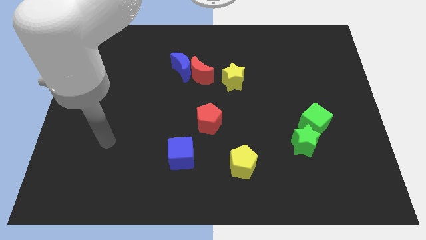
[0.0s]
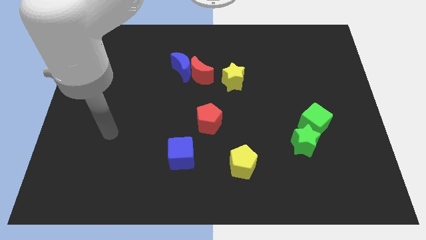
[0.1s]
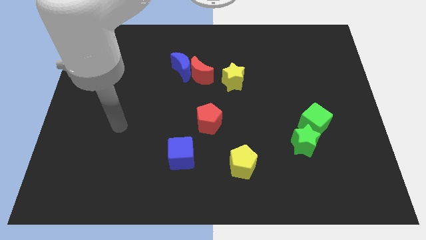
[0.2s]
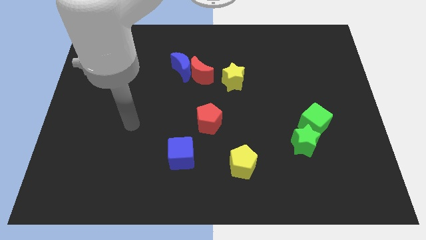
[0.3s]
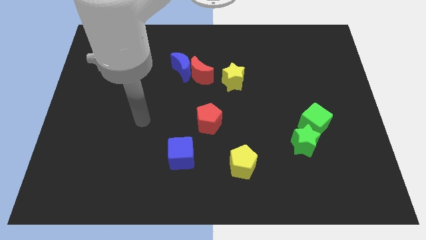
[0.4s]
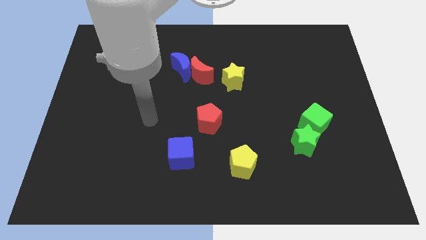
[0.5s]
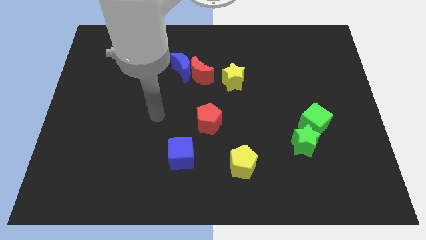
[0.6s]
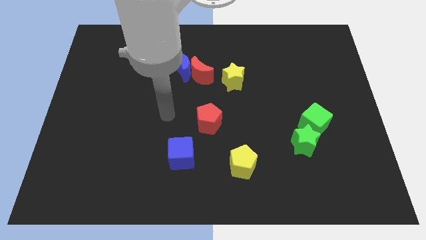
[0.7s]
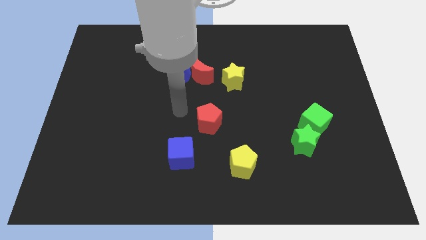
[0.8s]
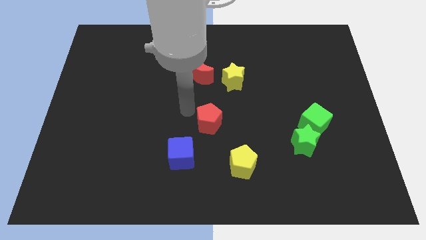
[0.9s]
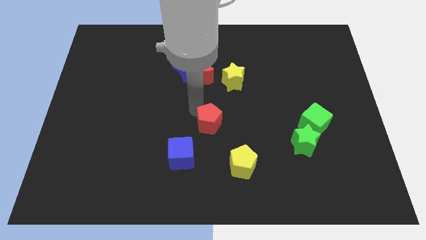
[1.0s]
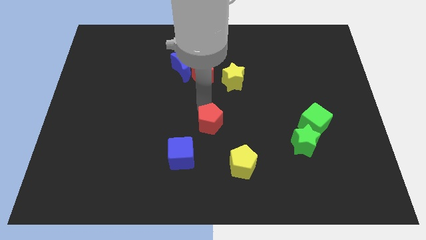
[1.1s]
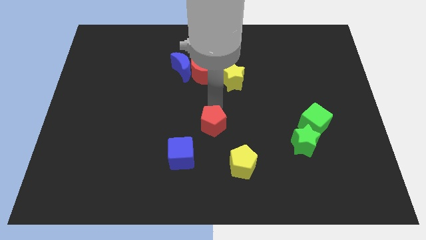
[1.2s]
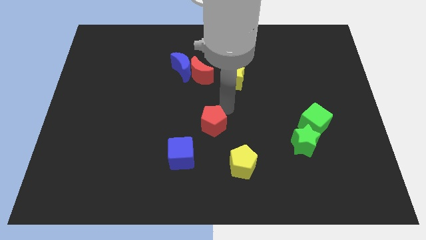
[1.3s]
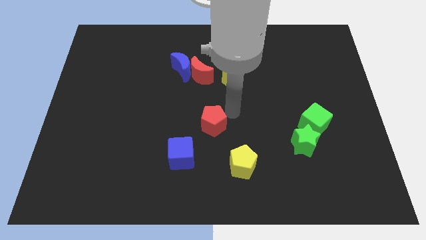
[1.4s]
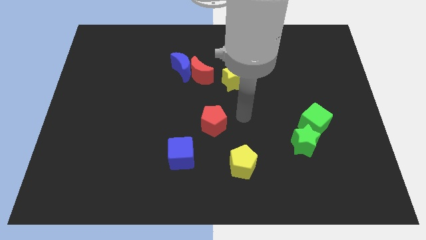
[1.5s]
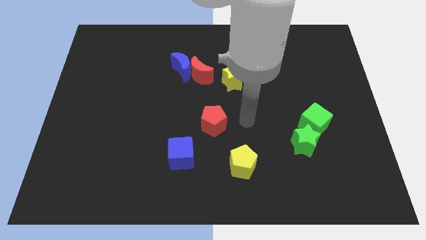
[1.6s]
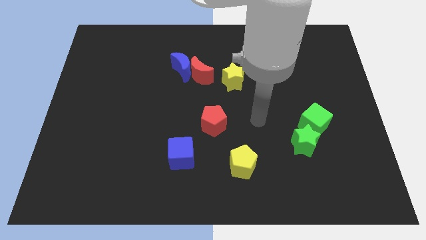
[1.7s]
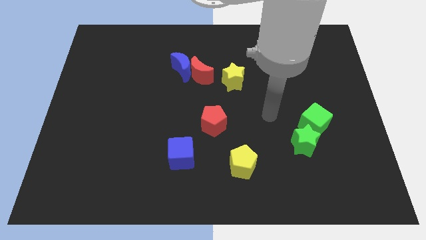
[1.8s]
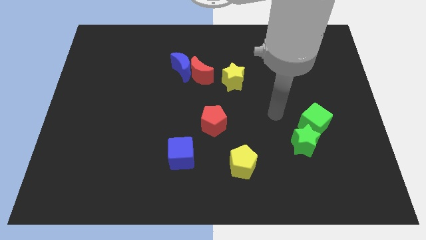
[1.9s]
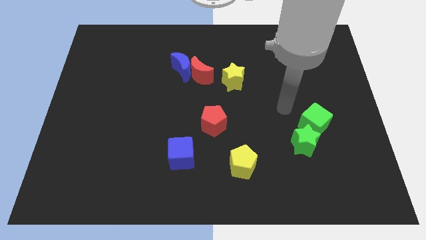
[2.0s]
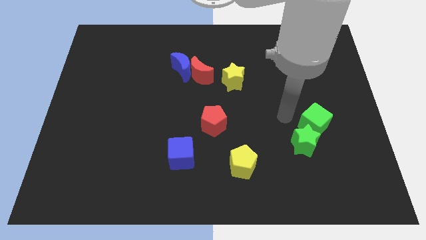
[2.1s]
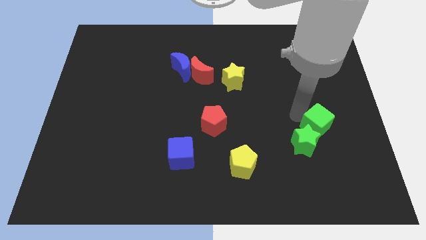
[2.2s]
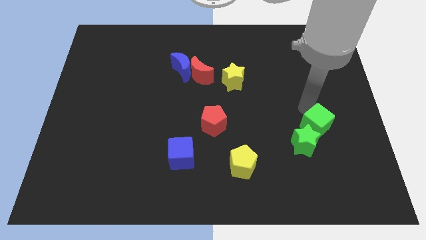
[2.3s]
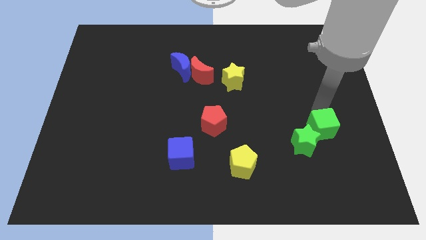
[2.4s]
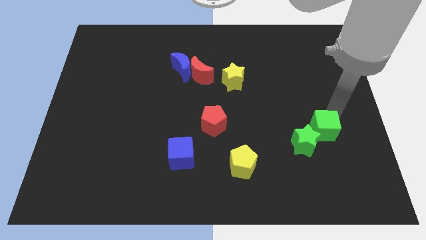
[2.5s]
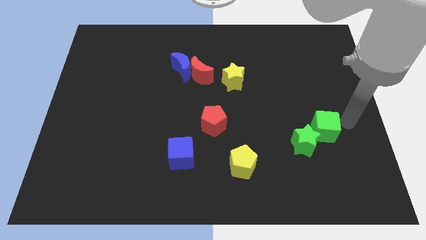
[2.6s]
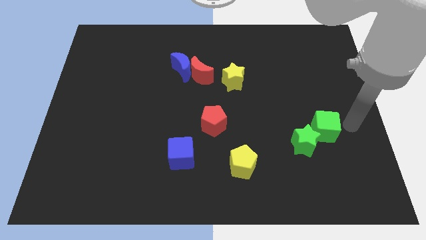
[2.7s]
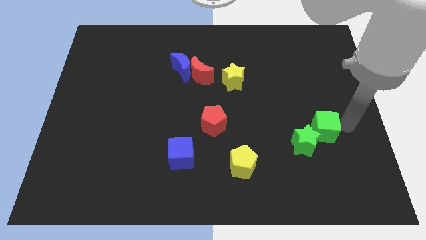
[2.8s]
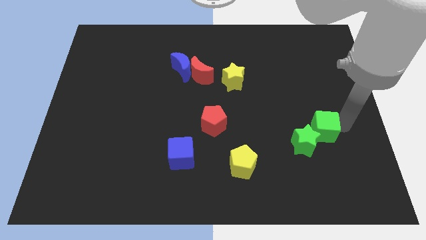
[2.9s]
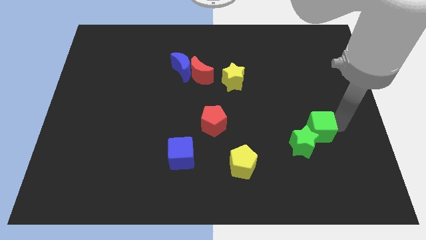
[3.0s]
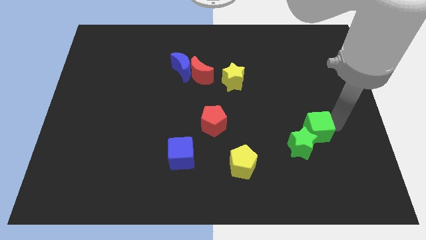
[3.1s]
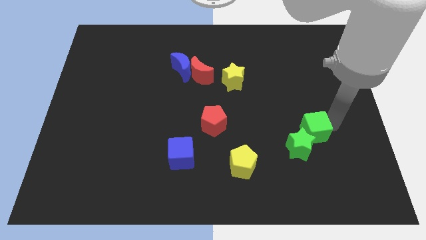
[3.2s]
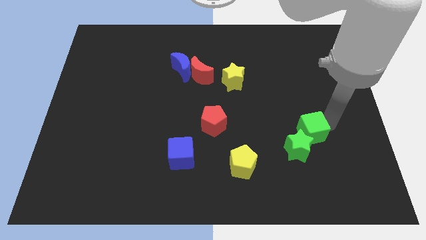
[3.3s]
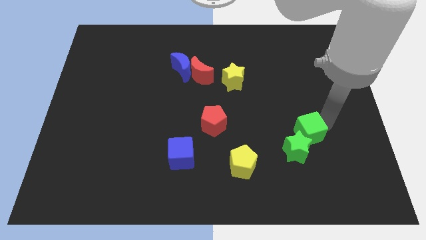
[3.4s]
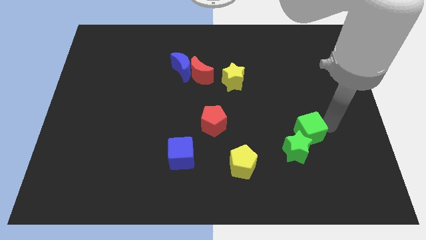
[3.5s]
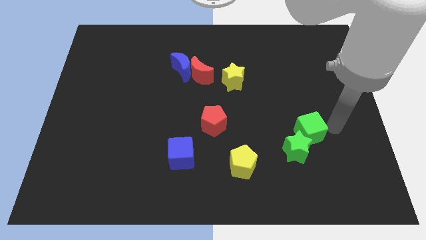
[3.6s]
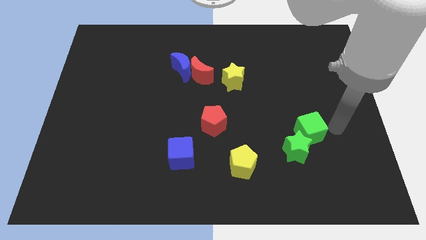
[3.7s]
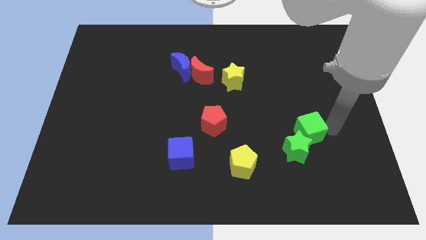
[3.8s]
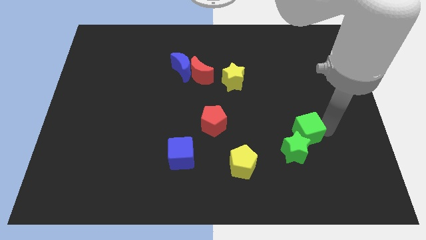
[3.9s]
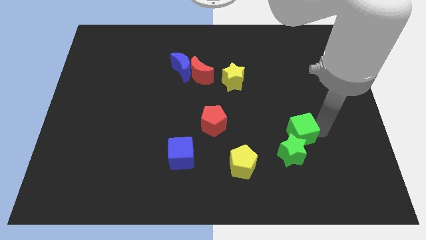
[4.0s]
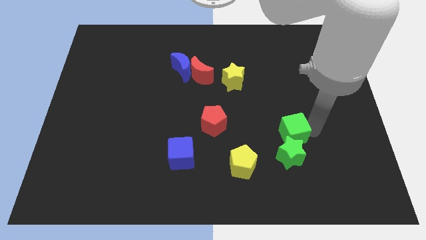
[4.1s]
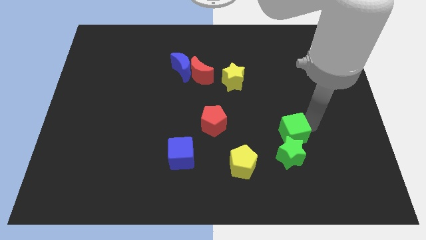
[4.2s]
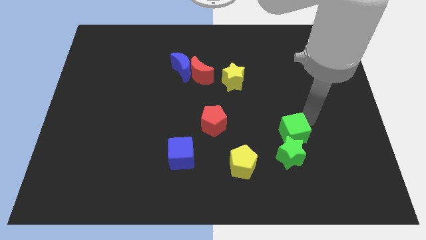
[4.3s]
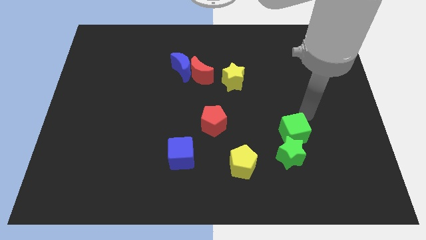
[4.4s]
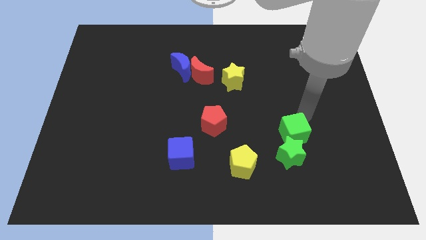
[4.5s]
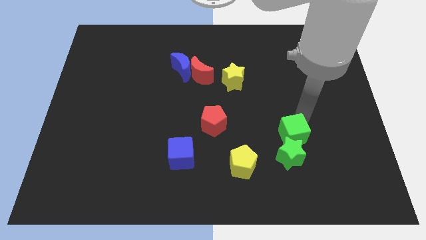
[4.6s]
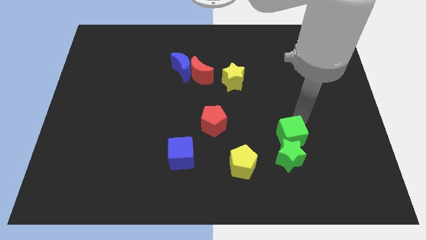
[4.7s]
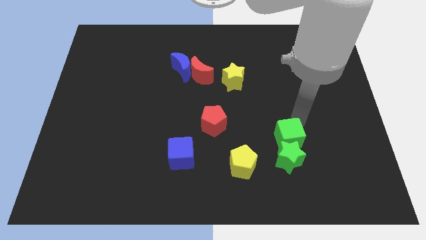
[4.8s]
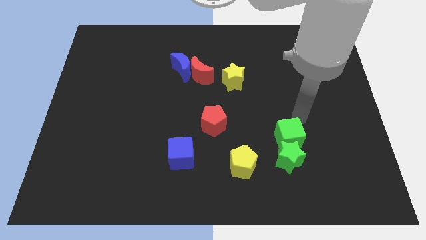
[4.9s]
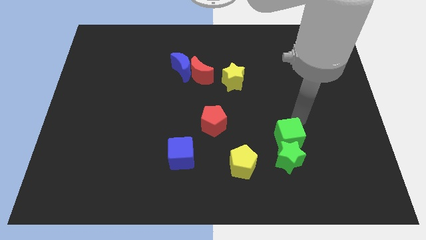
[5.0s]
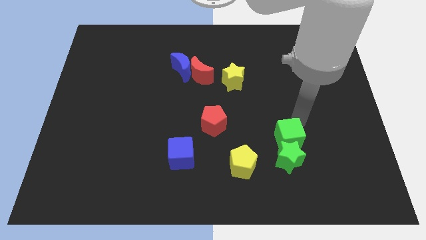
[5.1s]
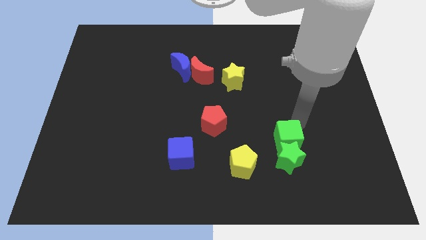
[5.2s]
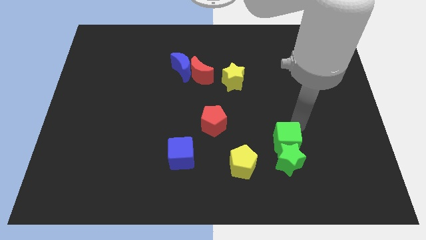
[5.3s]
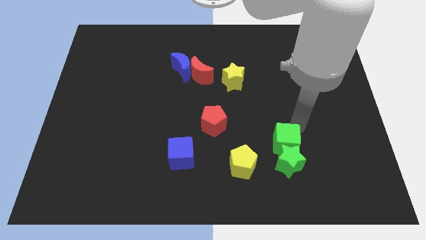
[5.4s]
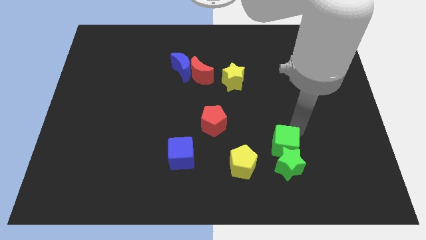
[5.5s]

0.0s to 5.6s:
push the green cube to the right side of the yellow pentagon

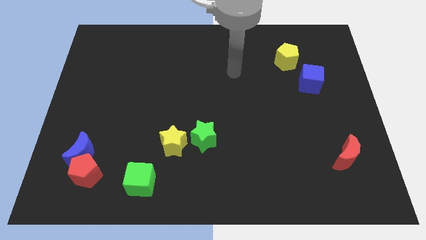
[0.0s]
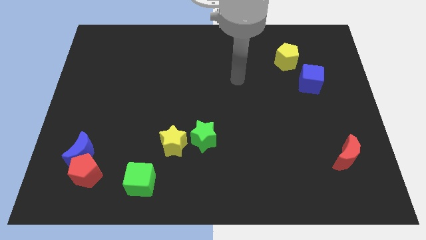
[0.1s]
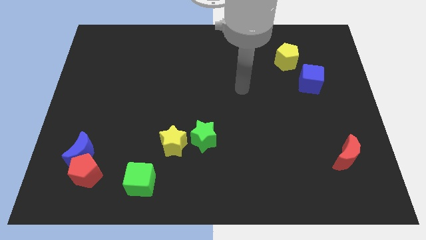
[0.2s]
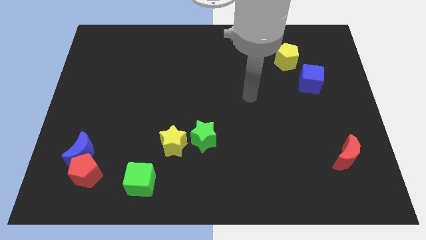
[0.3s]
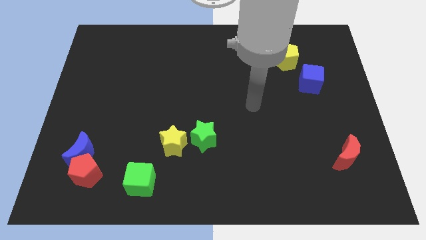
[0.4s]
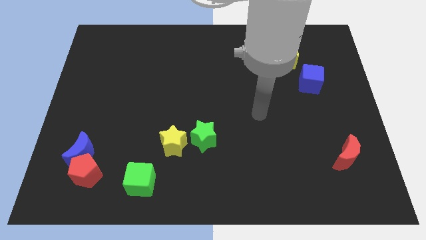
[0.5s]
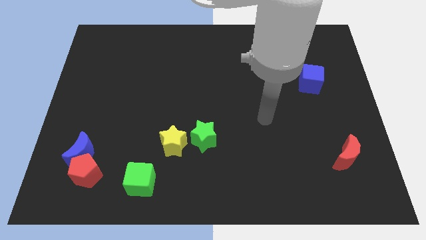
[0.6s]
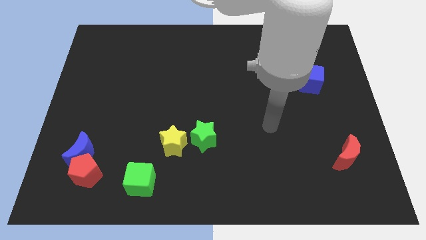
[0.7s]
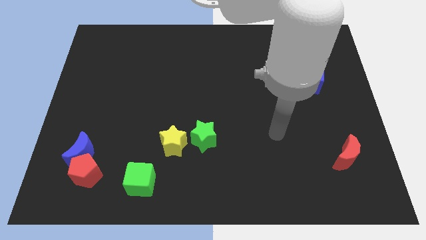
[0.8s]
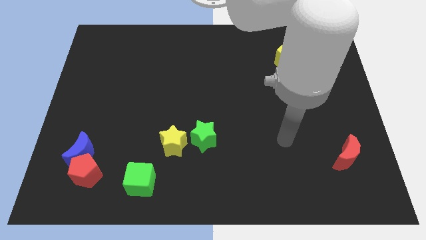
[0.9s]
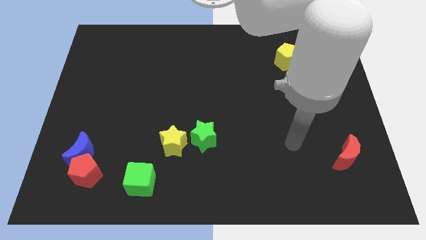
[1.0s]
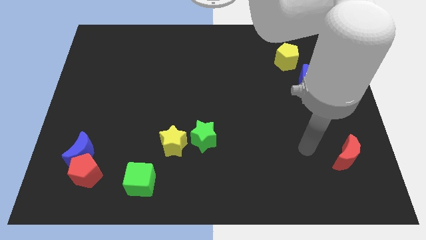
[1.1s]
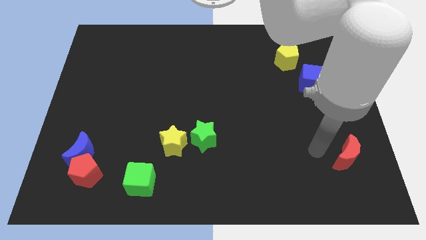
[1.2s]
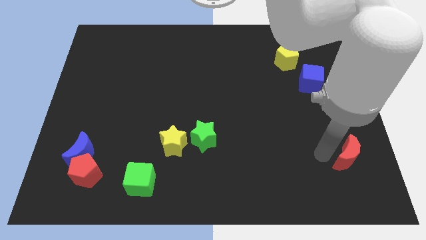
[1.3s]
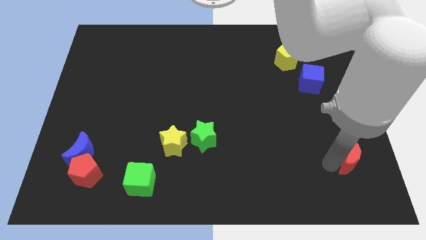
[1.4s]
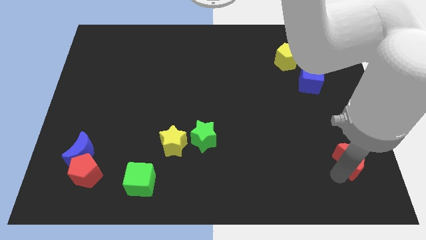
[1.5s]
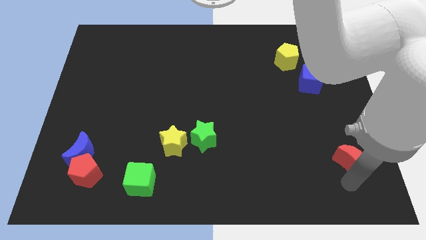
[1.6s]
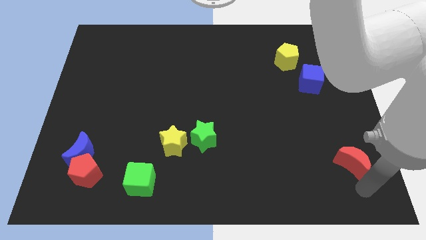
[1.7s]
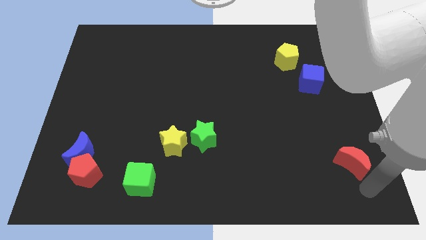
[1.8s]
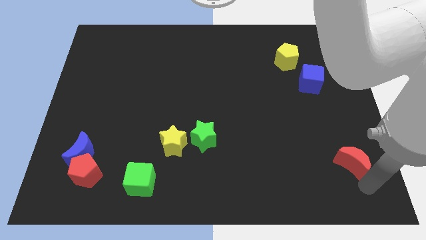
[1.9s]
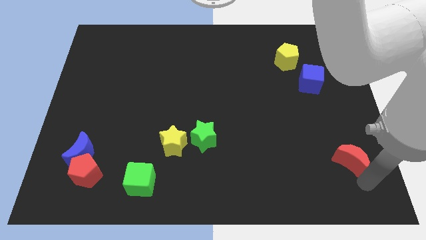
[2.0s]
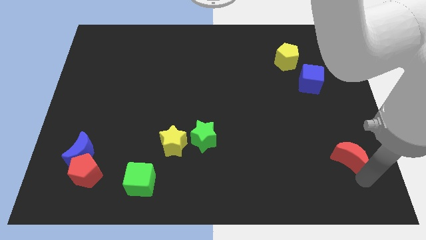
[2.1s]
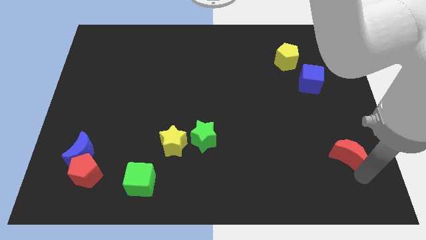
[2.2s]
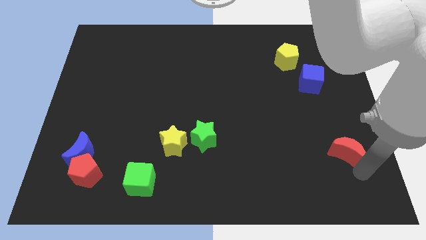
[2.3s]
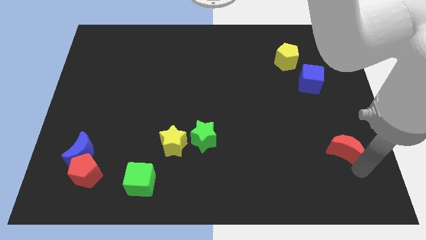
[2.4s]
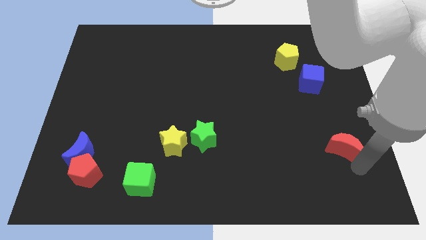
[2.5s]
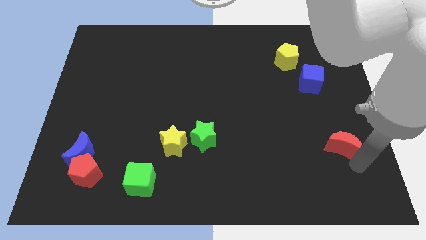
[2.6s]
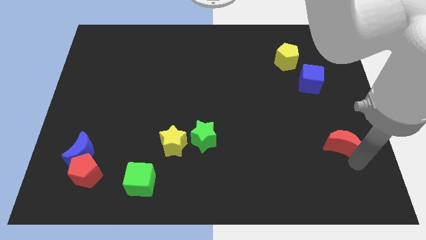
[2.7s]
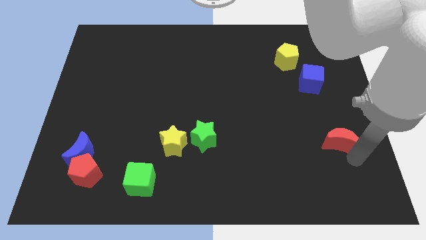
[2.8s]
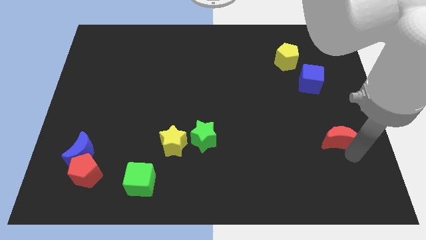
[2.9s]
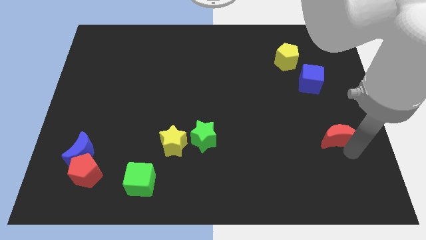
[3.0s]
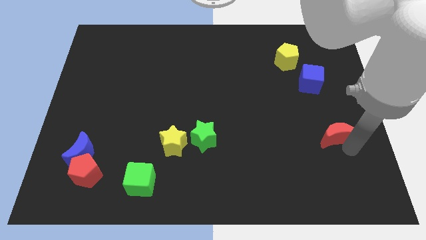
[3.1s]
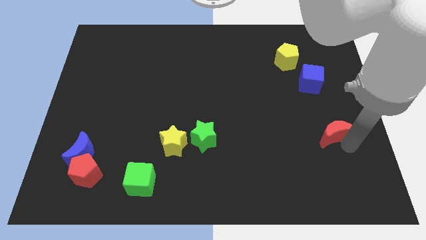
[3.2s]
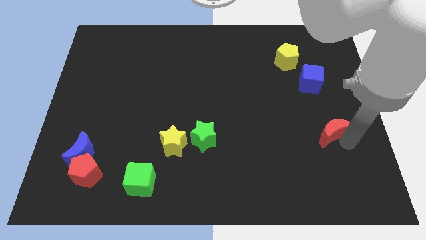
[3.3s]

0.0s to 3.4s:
put the red moon to the bottom side of the blue cube
